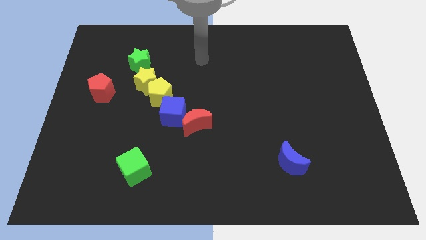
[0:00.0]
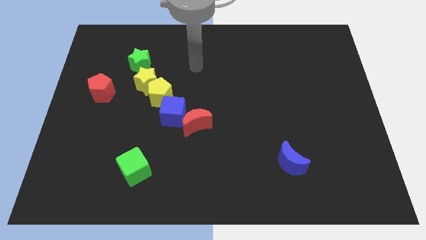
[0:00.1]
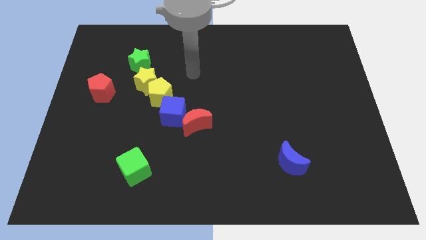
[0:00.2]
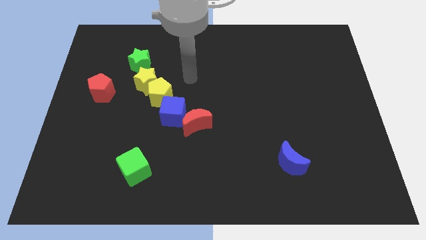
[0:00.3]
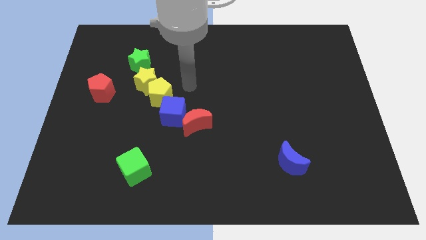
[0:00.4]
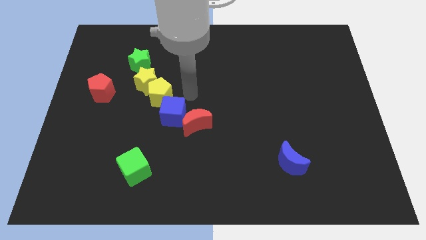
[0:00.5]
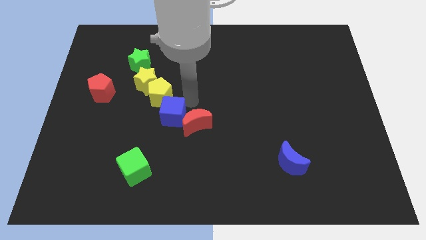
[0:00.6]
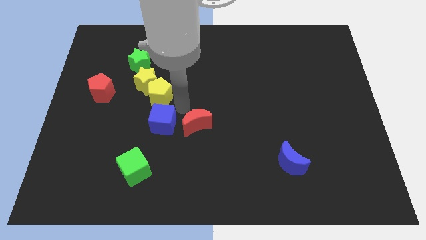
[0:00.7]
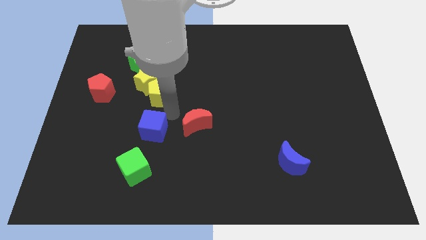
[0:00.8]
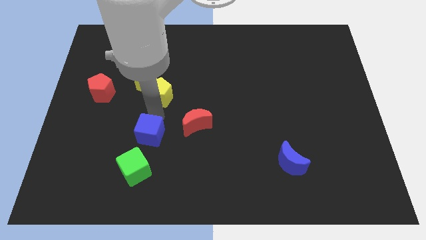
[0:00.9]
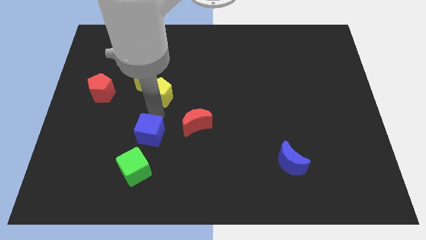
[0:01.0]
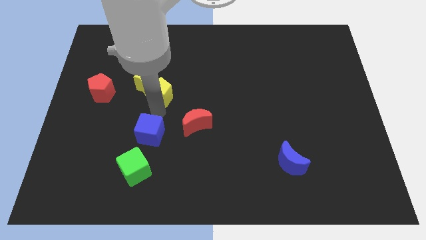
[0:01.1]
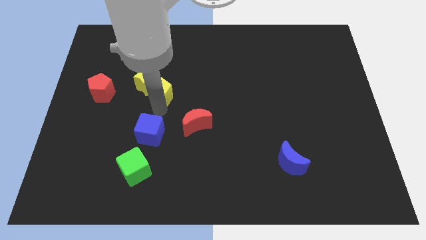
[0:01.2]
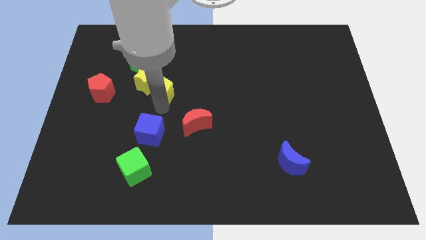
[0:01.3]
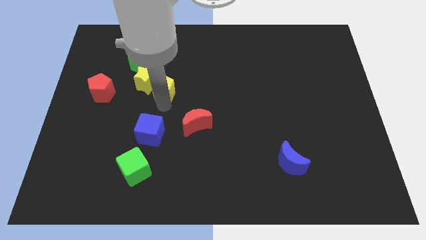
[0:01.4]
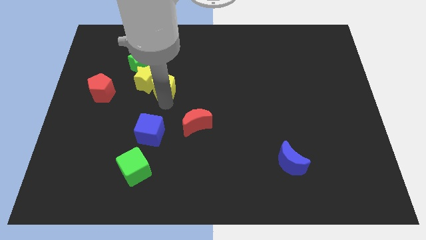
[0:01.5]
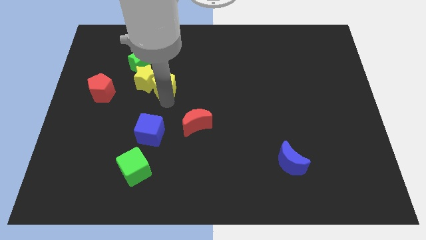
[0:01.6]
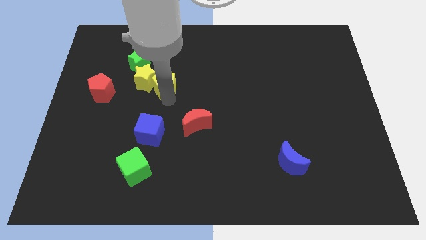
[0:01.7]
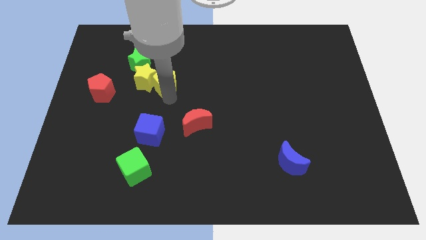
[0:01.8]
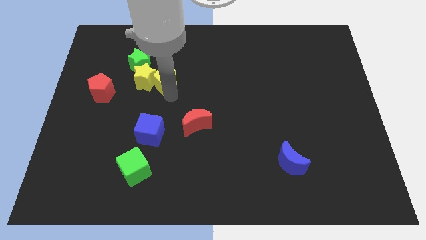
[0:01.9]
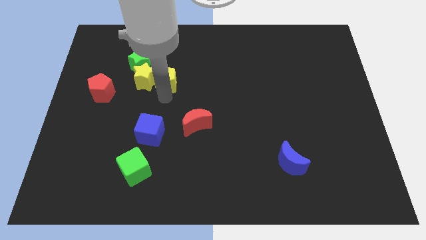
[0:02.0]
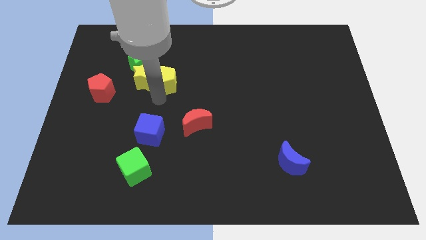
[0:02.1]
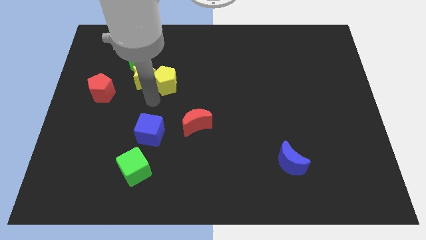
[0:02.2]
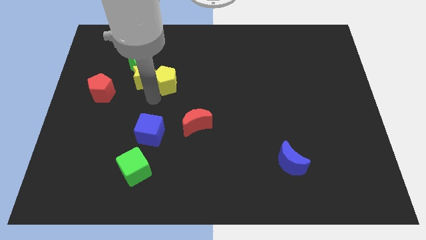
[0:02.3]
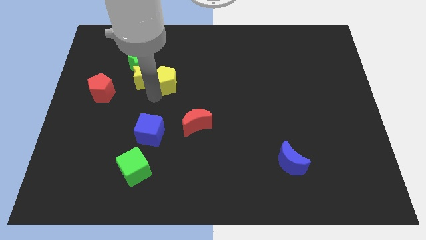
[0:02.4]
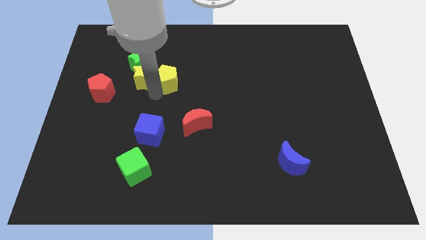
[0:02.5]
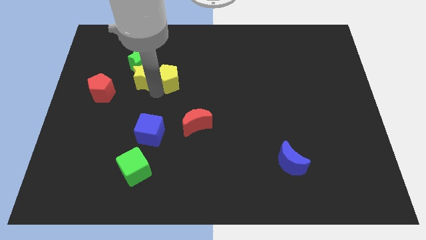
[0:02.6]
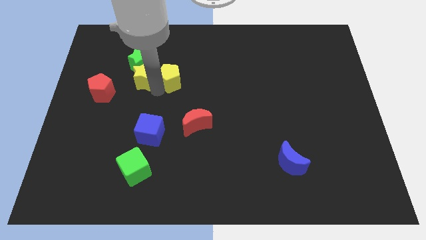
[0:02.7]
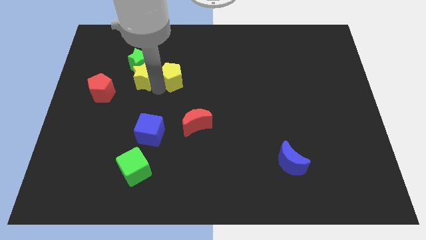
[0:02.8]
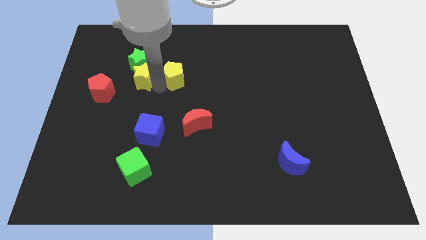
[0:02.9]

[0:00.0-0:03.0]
pull the yellow pentagon apart from the yellow star and blue cube

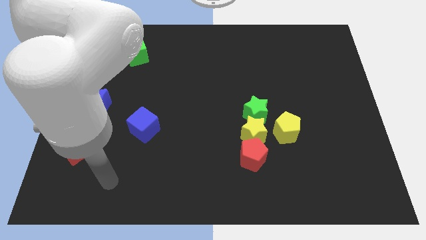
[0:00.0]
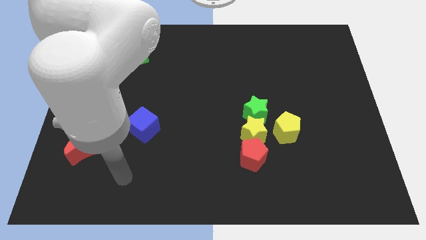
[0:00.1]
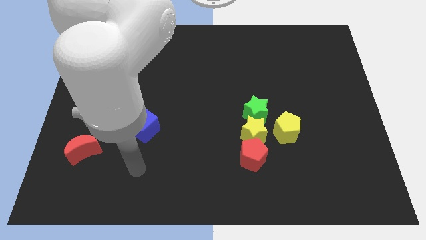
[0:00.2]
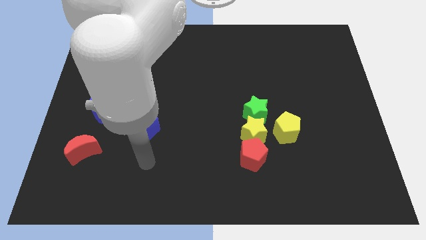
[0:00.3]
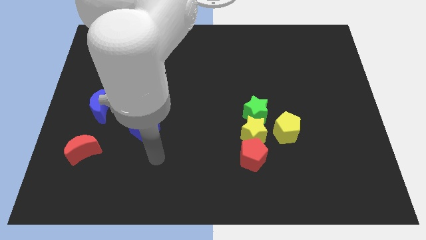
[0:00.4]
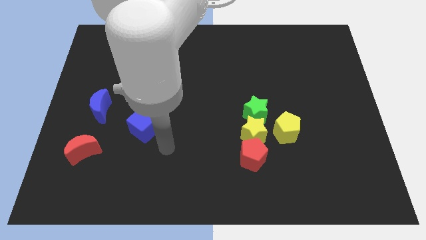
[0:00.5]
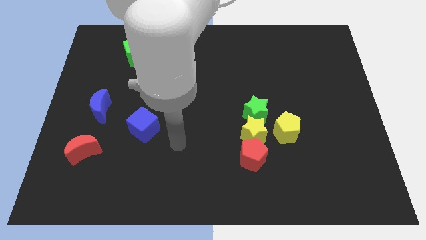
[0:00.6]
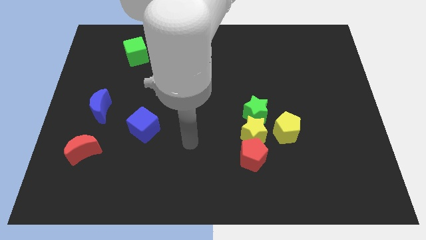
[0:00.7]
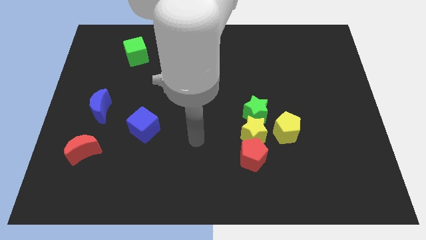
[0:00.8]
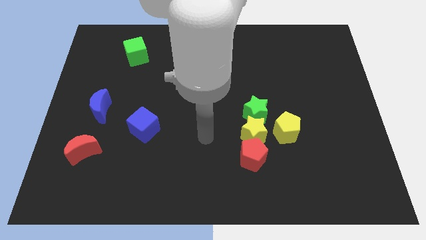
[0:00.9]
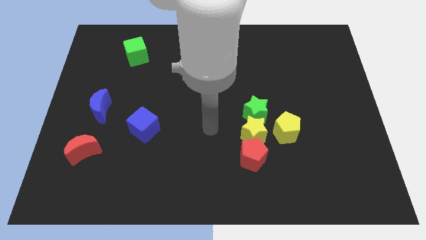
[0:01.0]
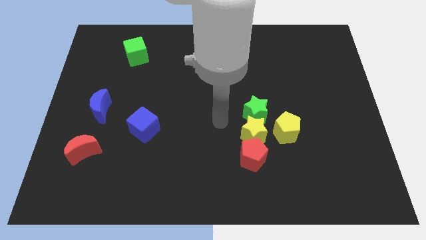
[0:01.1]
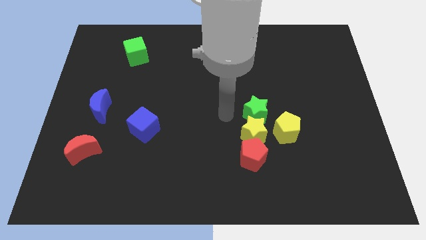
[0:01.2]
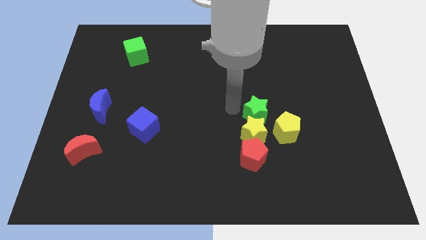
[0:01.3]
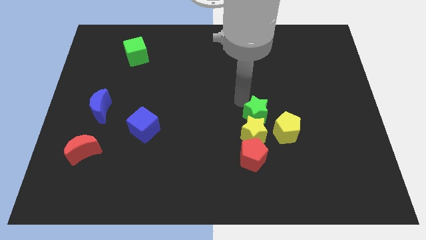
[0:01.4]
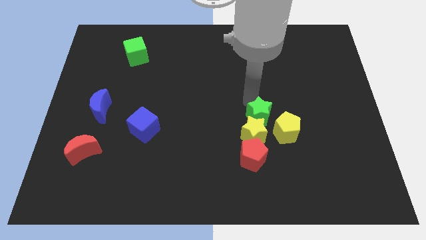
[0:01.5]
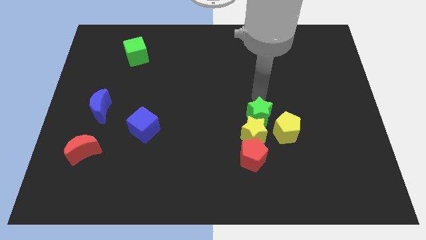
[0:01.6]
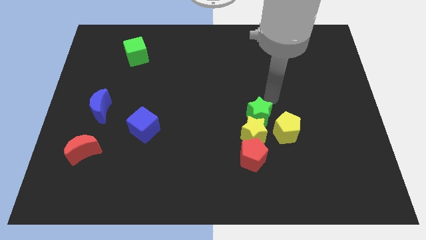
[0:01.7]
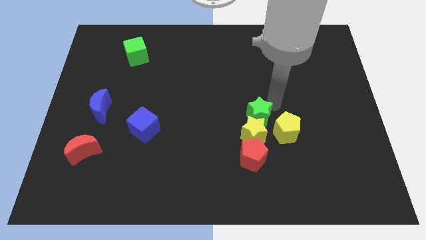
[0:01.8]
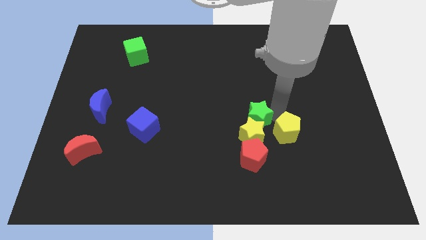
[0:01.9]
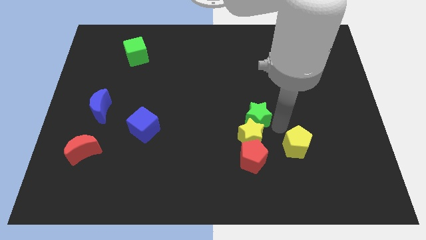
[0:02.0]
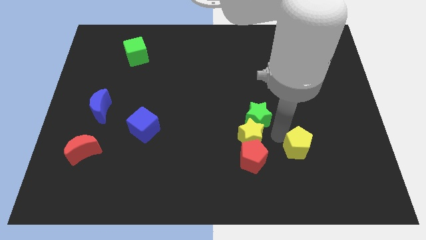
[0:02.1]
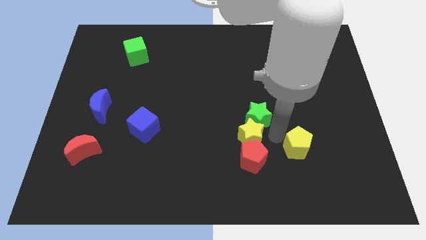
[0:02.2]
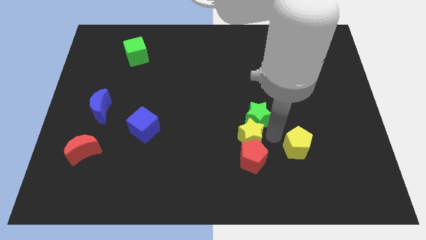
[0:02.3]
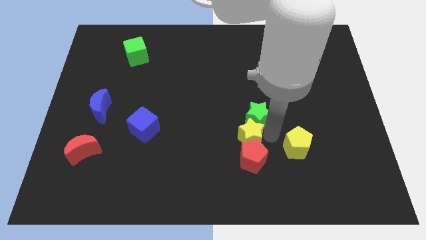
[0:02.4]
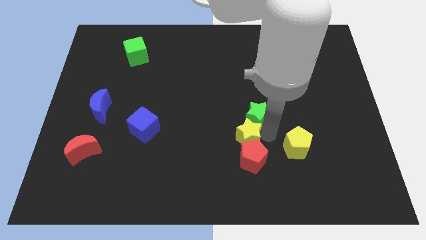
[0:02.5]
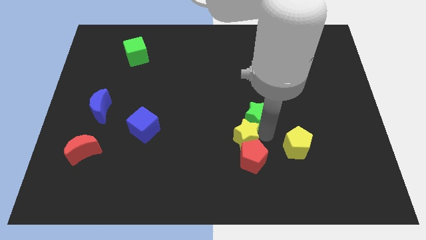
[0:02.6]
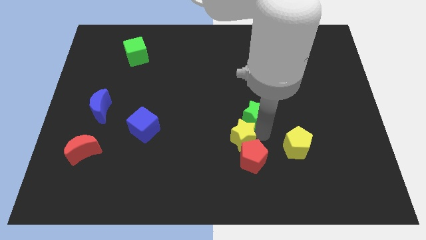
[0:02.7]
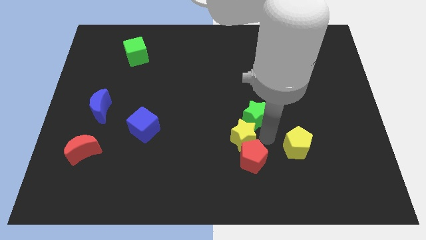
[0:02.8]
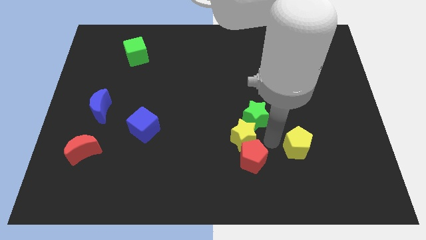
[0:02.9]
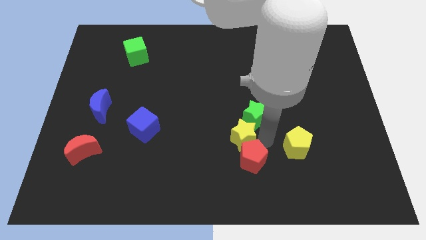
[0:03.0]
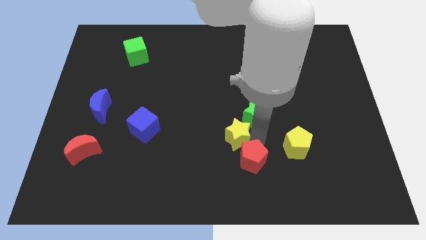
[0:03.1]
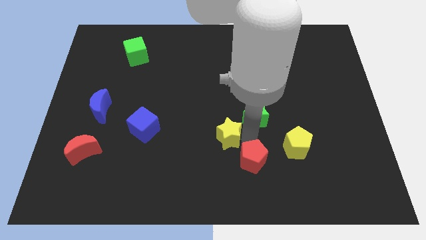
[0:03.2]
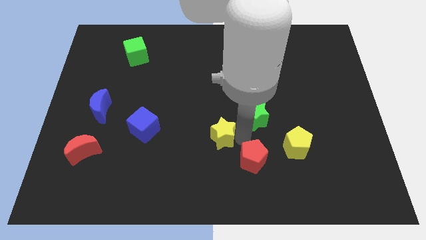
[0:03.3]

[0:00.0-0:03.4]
separate the yellow star from the clump

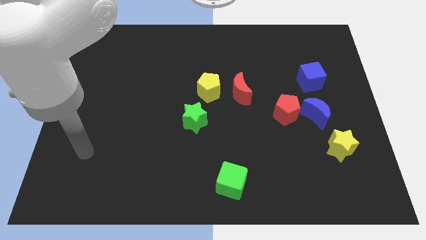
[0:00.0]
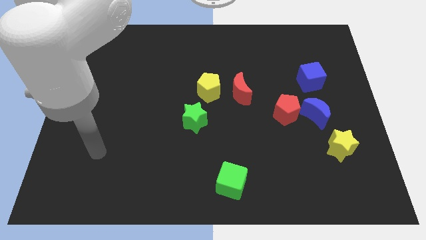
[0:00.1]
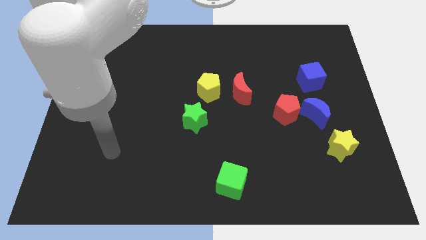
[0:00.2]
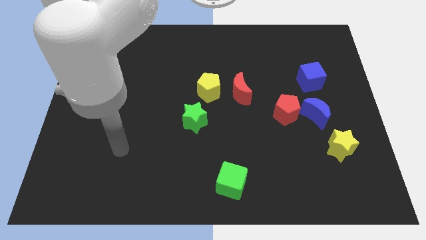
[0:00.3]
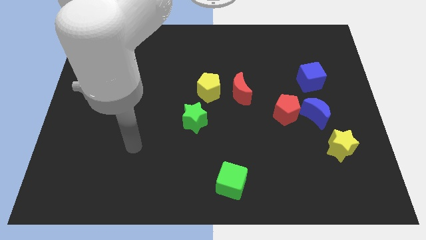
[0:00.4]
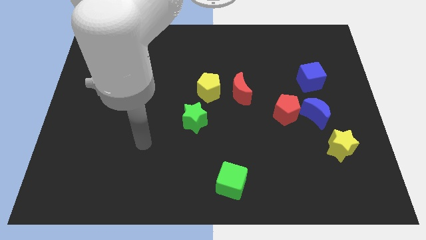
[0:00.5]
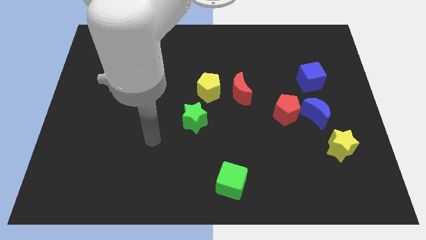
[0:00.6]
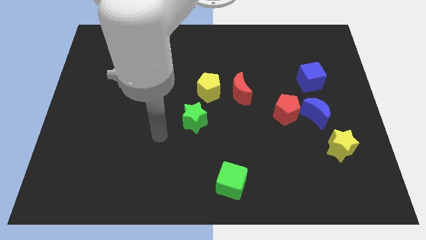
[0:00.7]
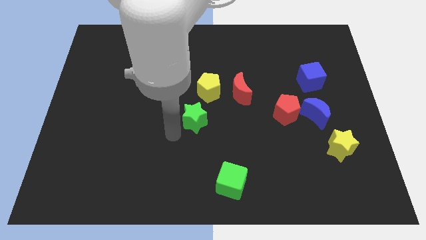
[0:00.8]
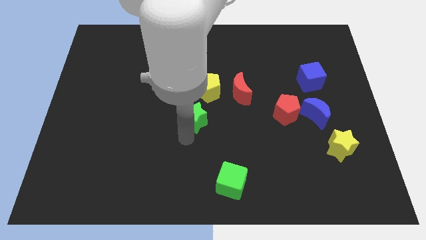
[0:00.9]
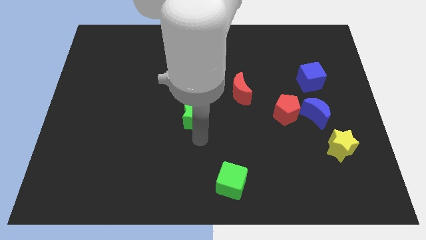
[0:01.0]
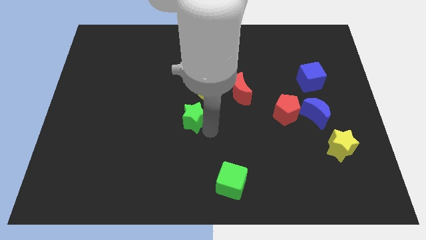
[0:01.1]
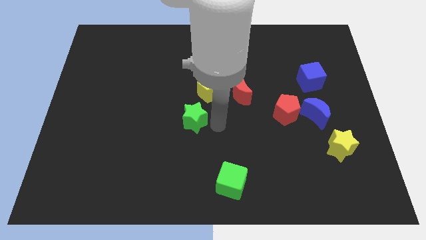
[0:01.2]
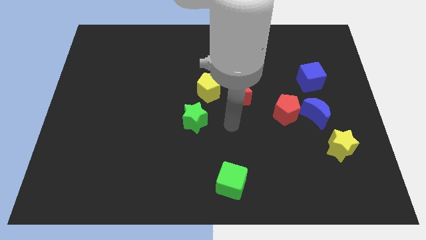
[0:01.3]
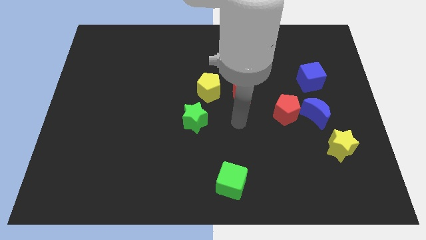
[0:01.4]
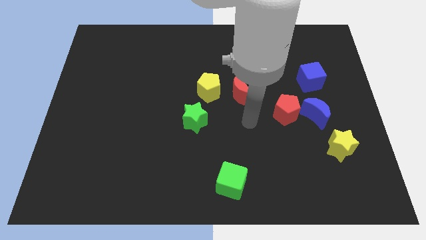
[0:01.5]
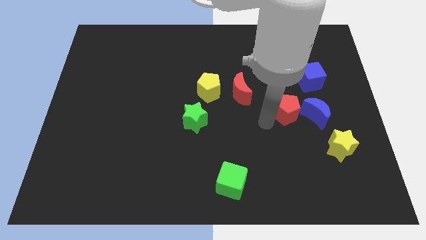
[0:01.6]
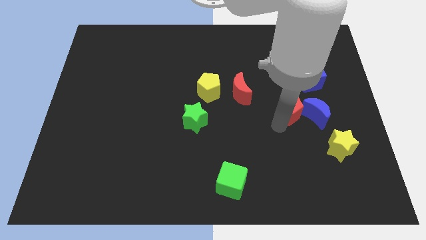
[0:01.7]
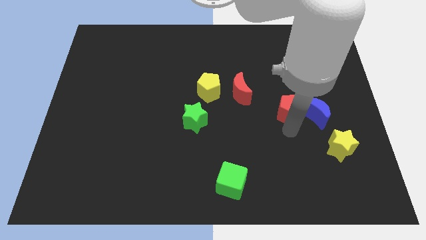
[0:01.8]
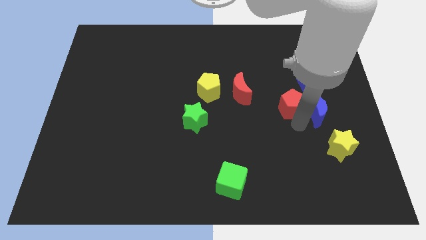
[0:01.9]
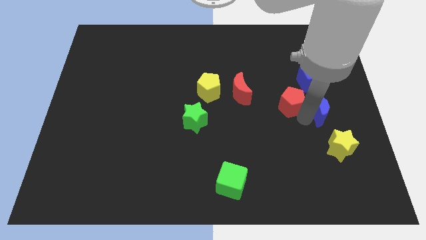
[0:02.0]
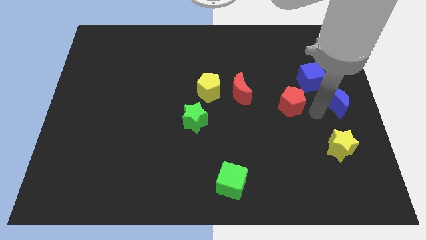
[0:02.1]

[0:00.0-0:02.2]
pull the red pentagon apart from the blue moon

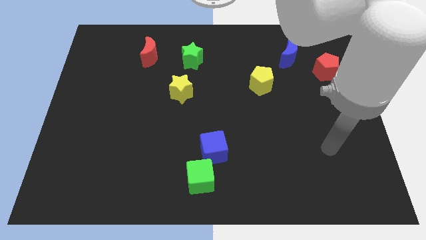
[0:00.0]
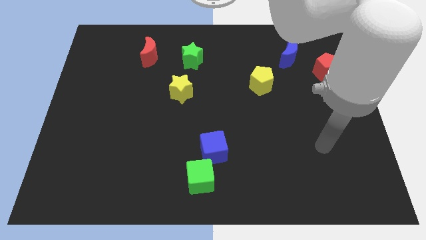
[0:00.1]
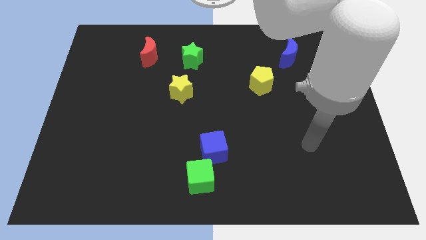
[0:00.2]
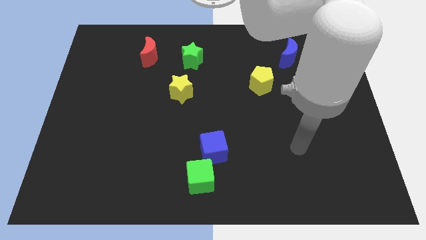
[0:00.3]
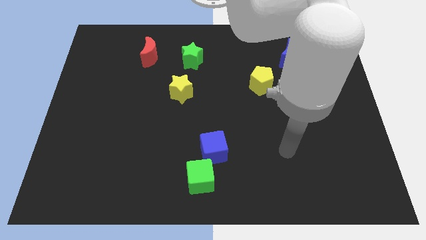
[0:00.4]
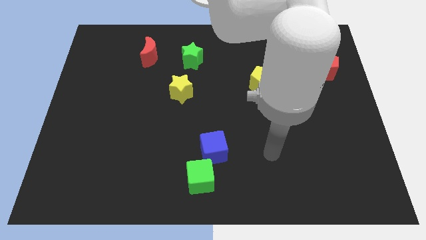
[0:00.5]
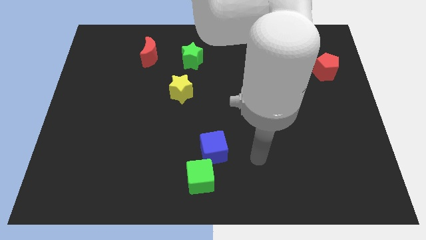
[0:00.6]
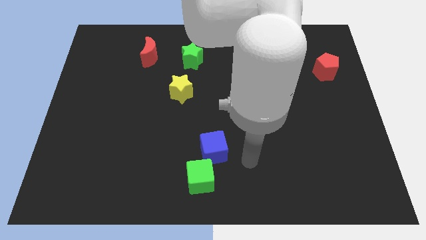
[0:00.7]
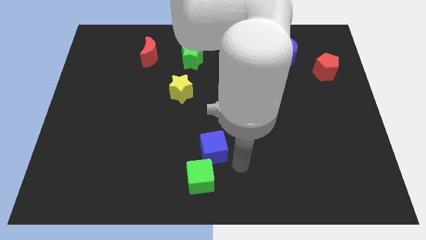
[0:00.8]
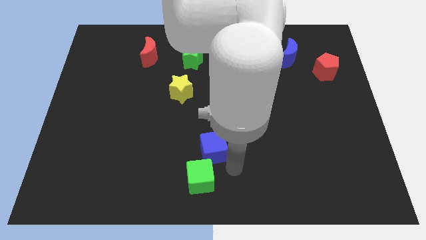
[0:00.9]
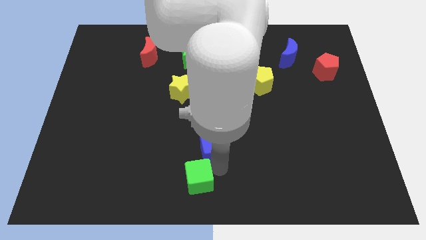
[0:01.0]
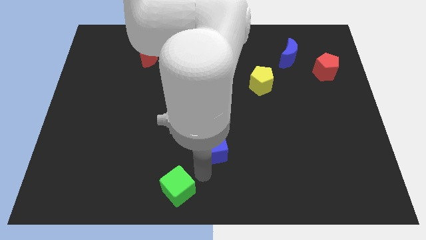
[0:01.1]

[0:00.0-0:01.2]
move the blue cube away from the green cube
